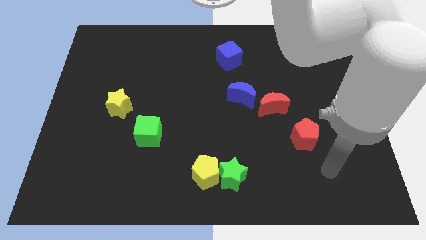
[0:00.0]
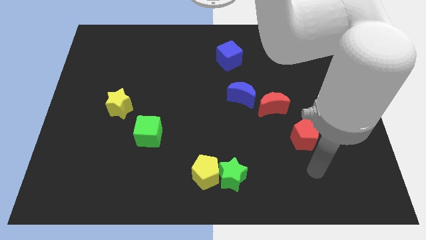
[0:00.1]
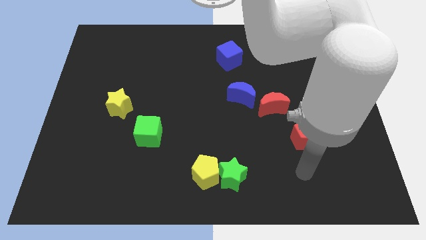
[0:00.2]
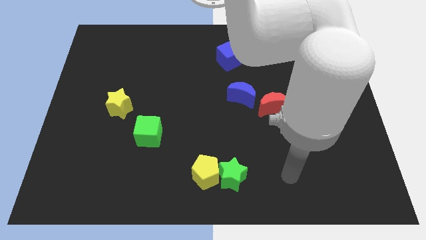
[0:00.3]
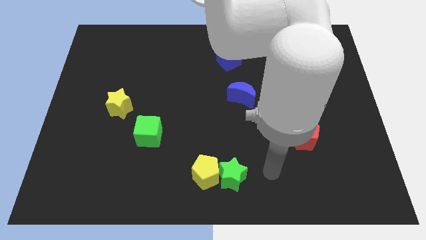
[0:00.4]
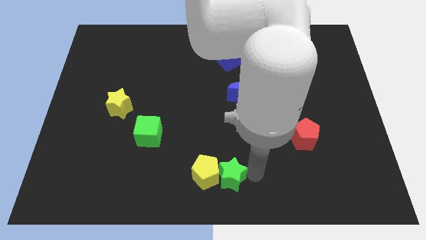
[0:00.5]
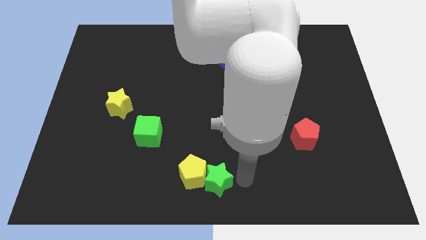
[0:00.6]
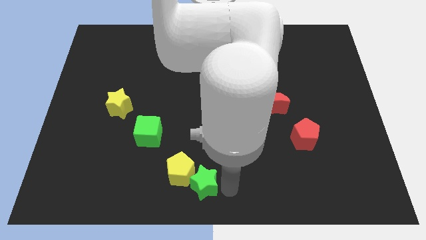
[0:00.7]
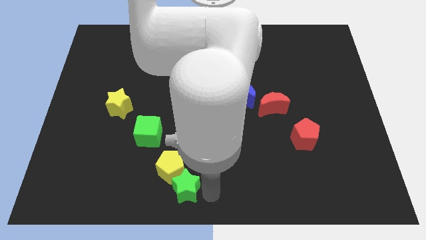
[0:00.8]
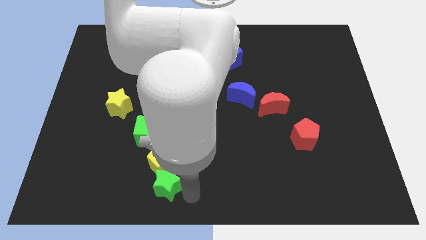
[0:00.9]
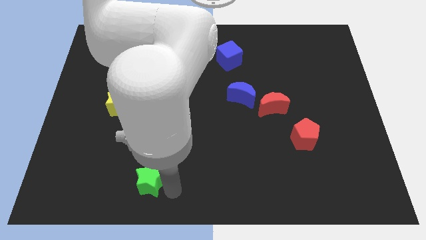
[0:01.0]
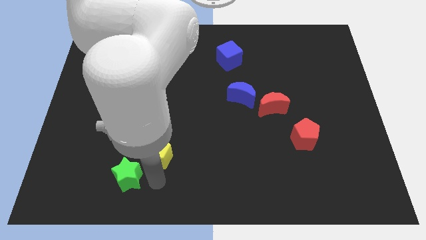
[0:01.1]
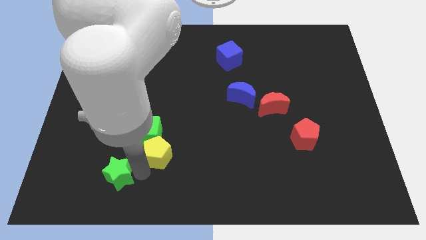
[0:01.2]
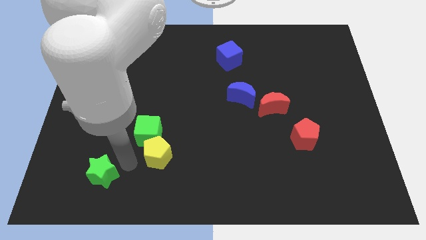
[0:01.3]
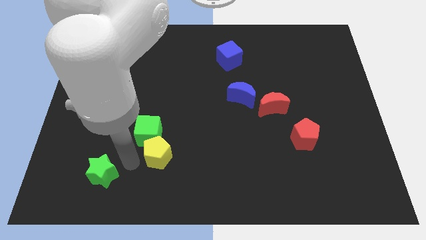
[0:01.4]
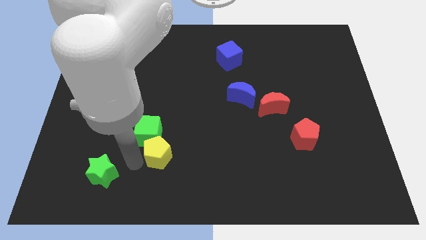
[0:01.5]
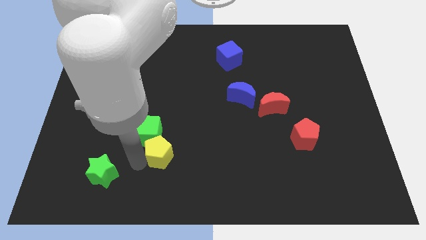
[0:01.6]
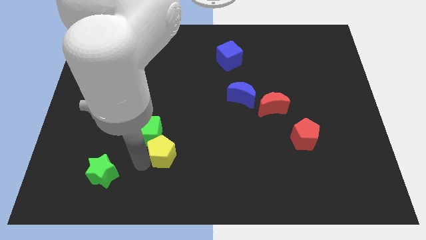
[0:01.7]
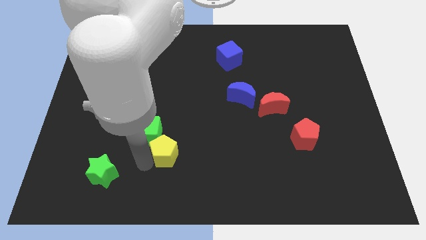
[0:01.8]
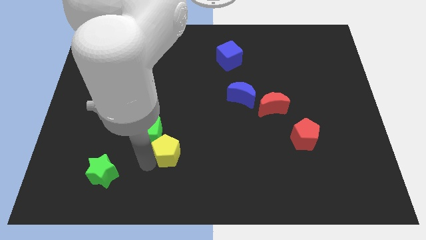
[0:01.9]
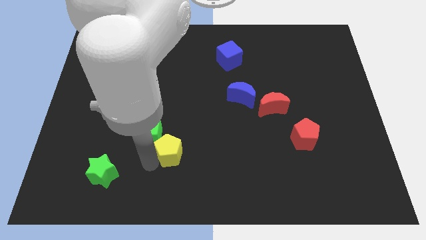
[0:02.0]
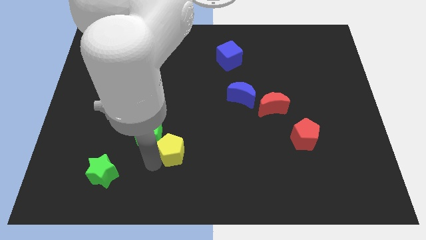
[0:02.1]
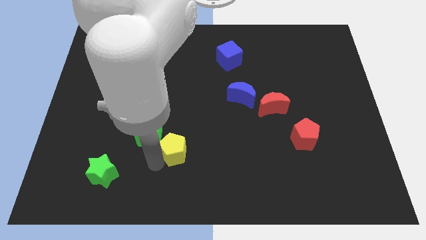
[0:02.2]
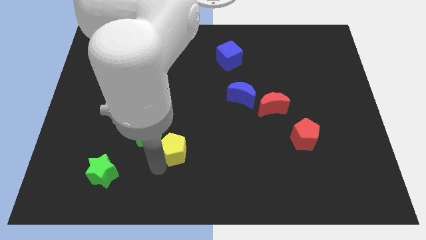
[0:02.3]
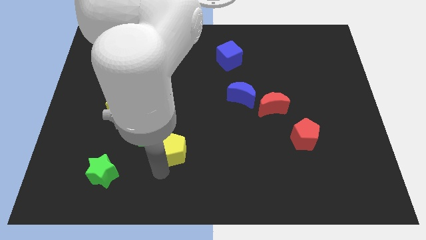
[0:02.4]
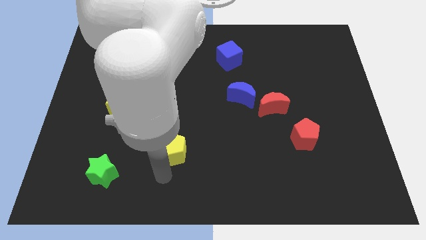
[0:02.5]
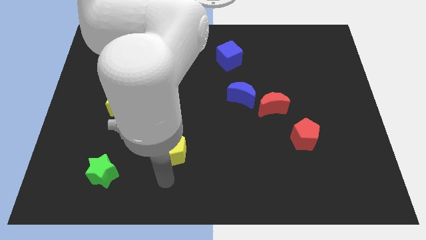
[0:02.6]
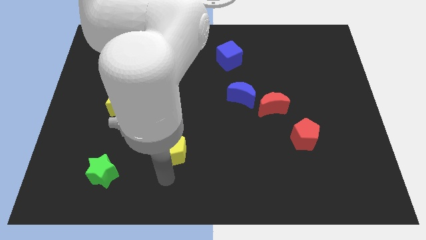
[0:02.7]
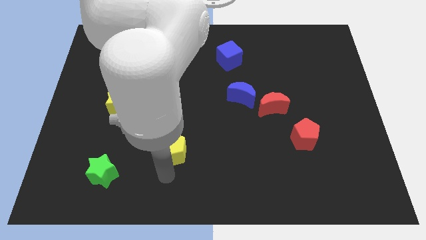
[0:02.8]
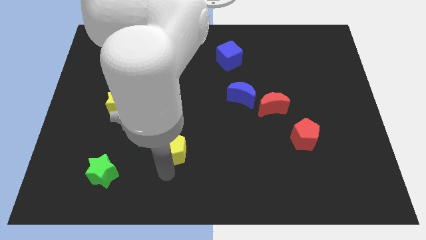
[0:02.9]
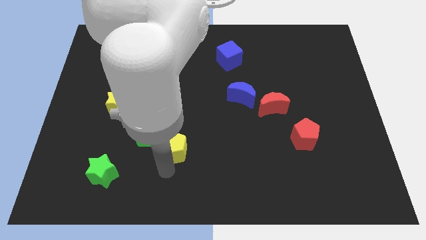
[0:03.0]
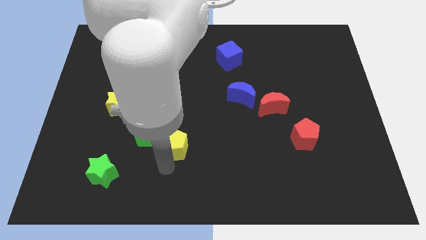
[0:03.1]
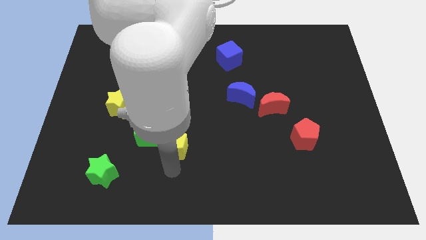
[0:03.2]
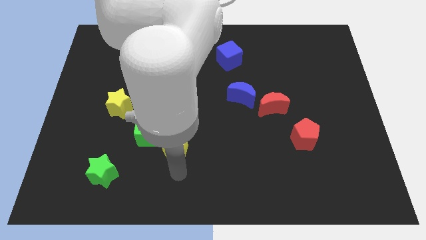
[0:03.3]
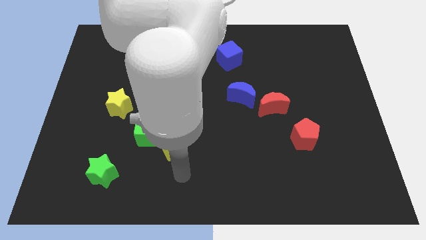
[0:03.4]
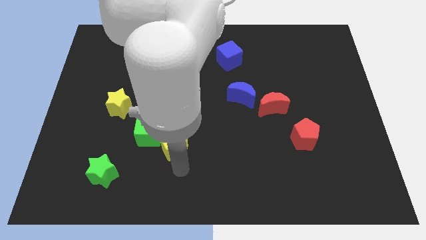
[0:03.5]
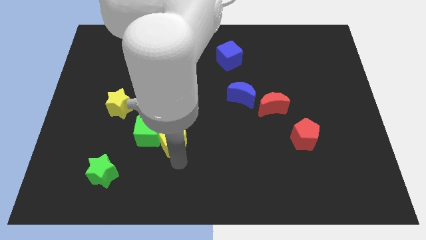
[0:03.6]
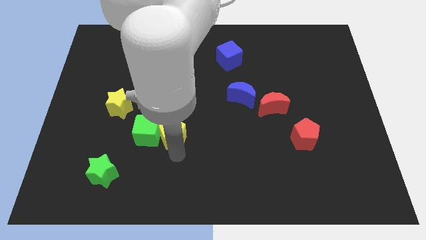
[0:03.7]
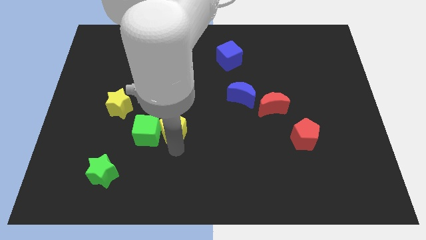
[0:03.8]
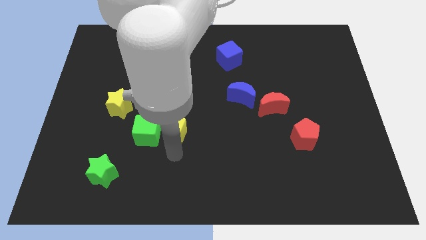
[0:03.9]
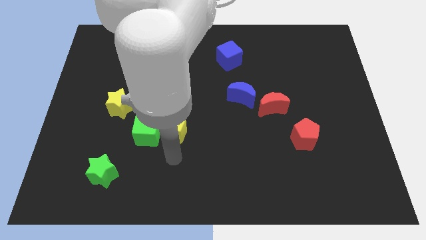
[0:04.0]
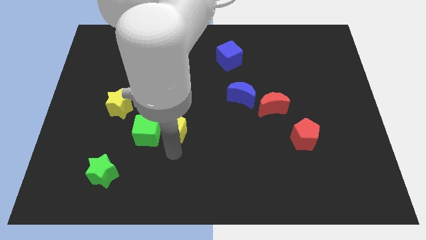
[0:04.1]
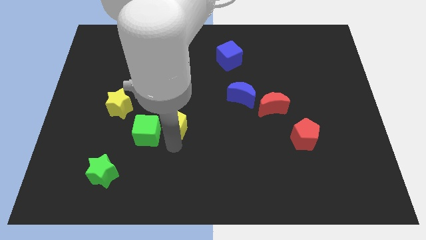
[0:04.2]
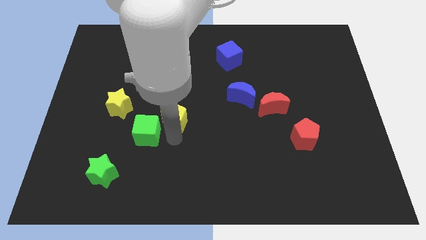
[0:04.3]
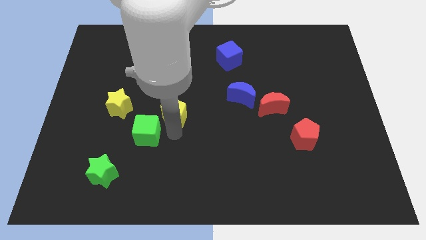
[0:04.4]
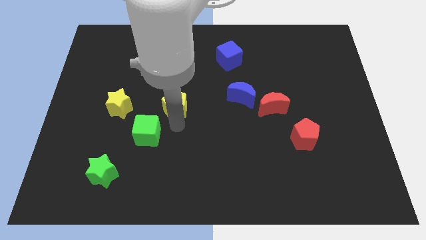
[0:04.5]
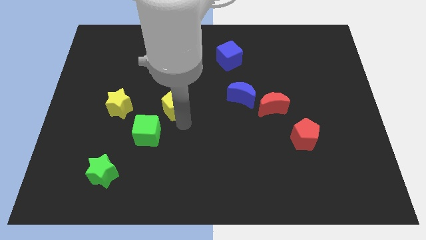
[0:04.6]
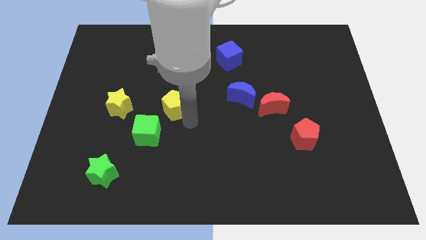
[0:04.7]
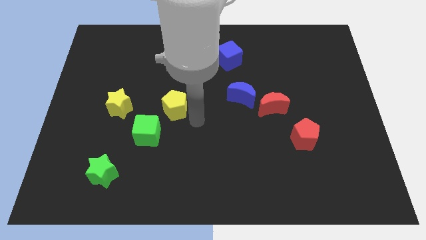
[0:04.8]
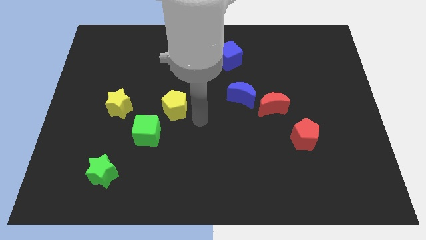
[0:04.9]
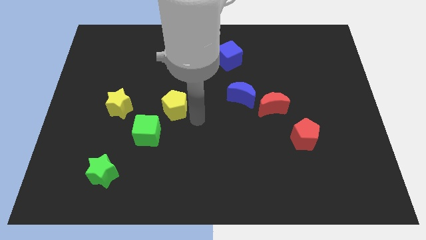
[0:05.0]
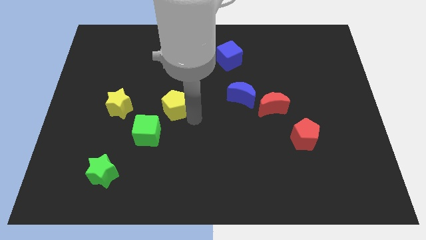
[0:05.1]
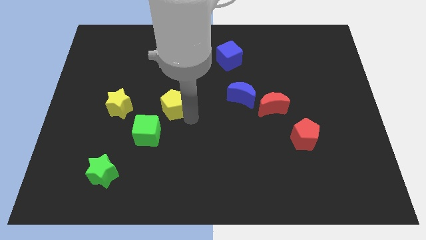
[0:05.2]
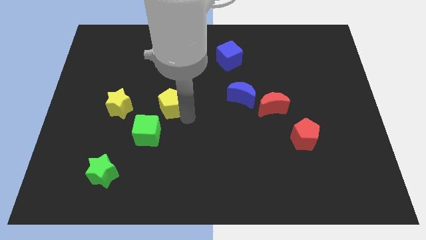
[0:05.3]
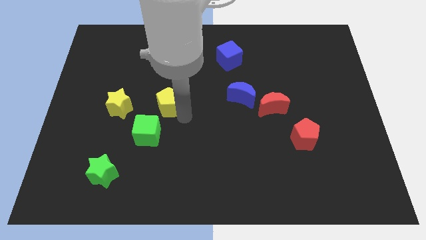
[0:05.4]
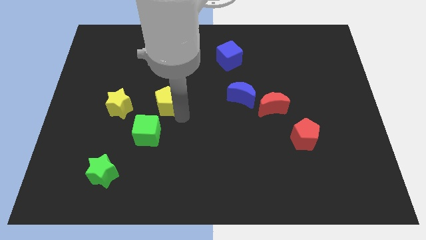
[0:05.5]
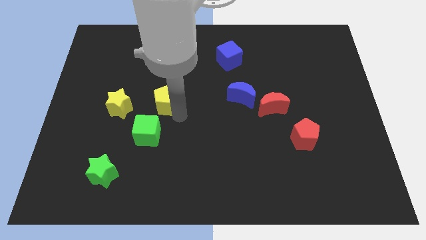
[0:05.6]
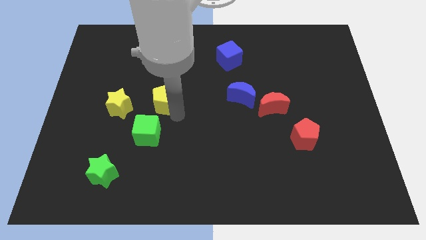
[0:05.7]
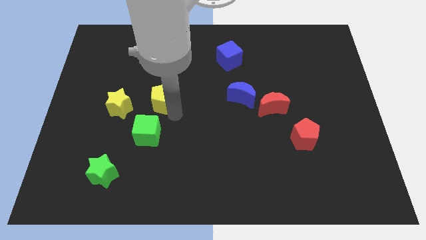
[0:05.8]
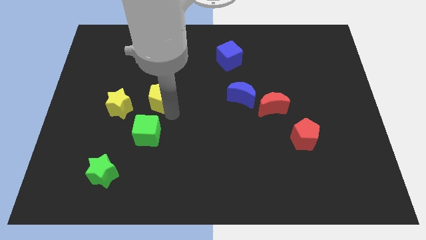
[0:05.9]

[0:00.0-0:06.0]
push the yellow pentagon up and to the left

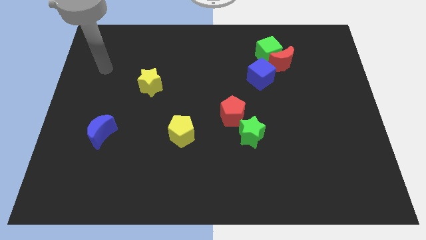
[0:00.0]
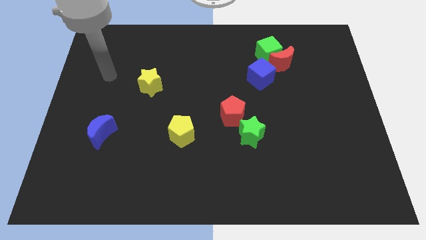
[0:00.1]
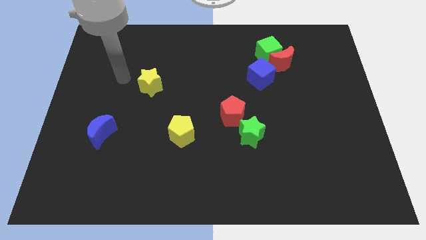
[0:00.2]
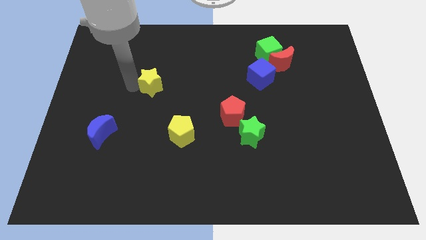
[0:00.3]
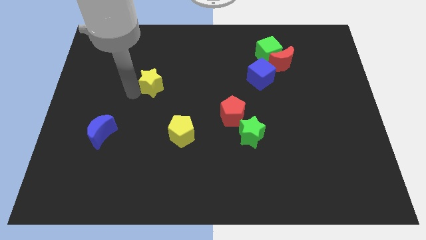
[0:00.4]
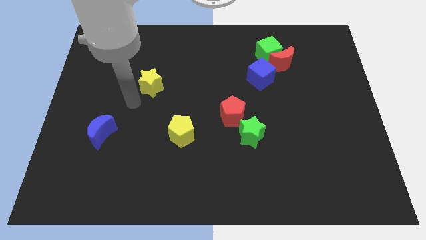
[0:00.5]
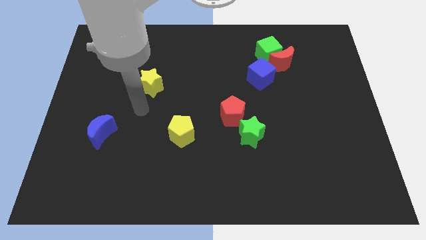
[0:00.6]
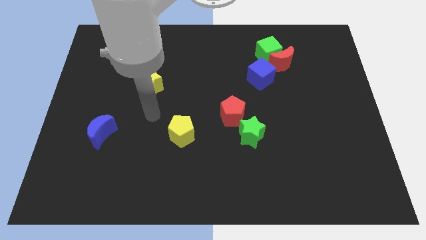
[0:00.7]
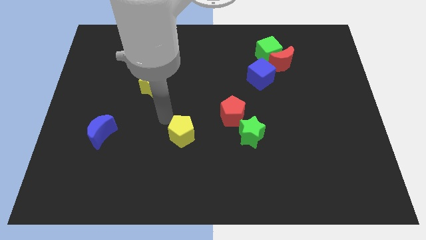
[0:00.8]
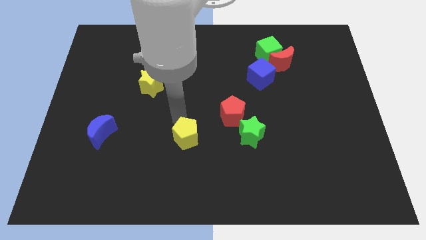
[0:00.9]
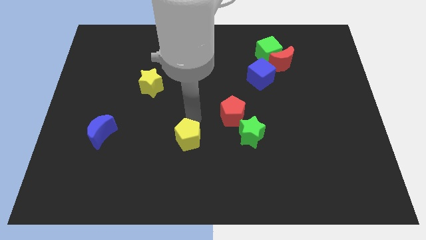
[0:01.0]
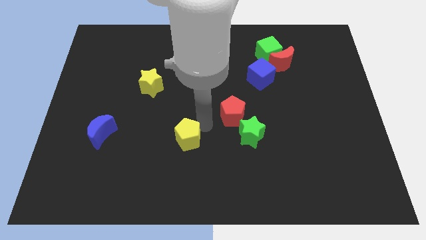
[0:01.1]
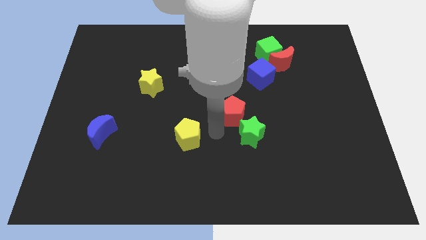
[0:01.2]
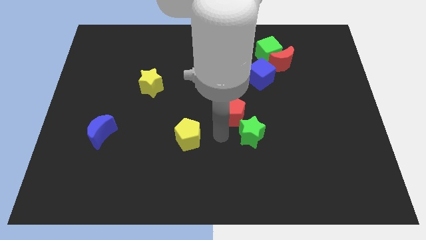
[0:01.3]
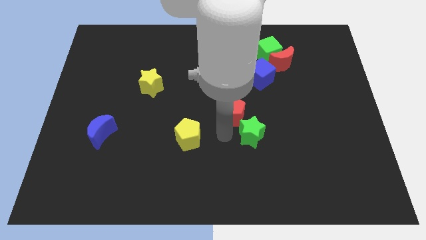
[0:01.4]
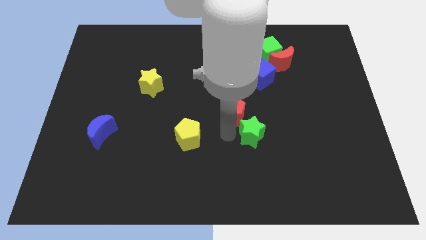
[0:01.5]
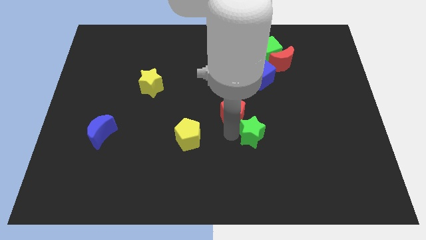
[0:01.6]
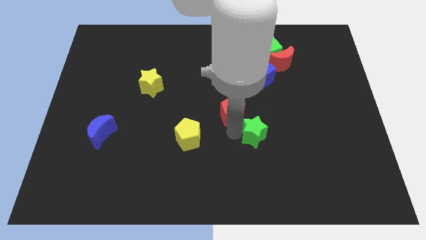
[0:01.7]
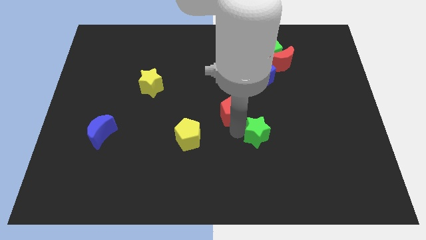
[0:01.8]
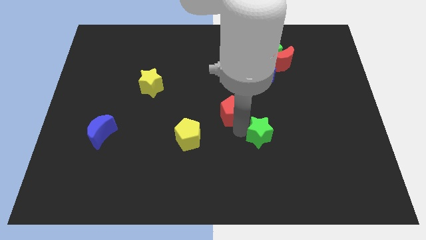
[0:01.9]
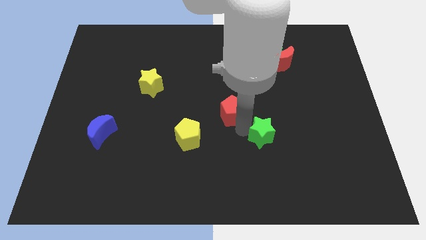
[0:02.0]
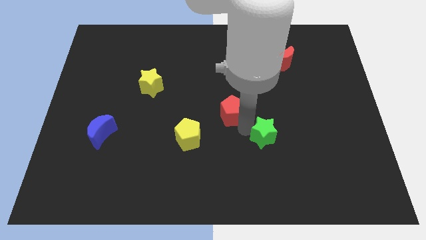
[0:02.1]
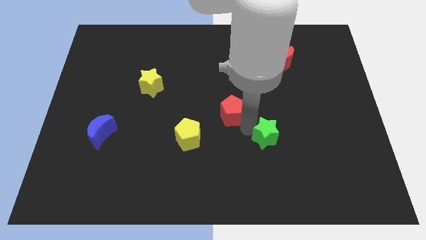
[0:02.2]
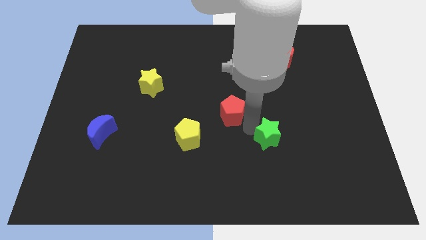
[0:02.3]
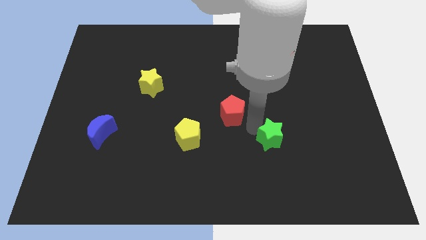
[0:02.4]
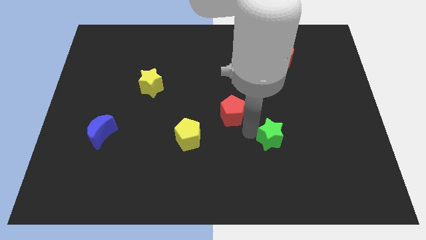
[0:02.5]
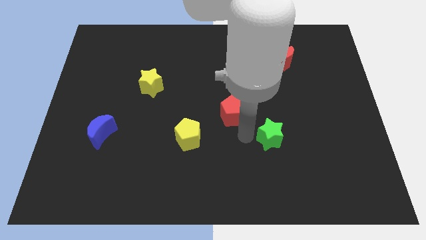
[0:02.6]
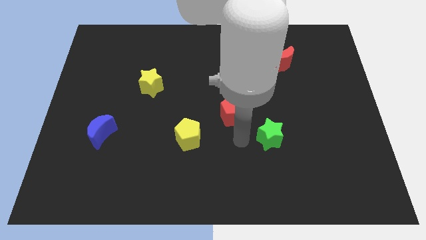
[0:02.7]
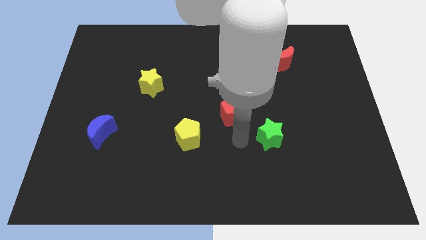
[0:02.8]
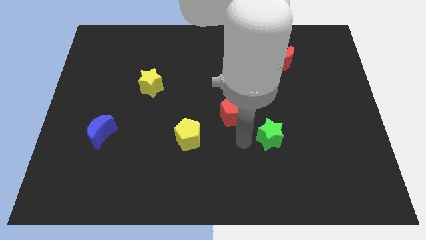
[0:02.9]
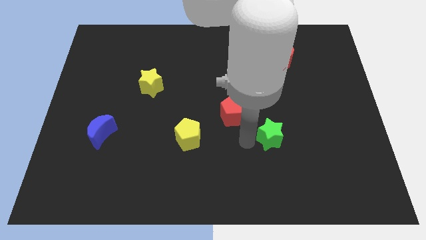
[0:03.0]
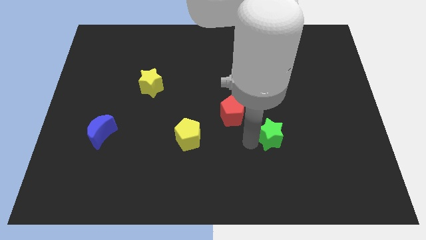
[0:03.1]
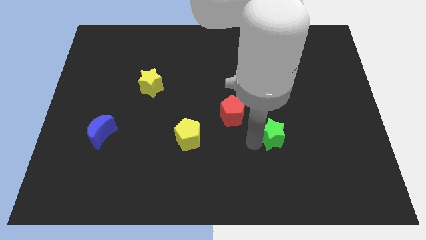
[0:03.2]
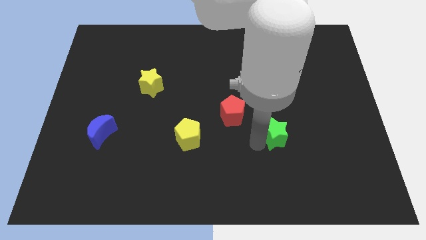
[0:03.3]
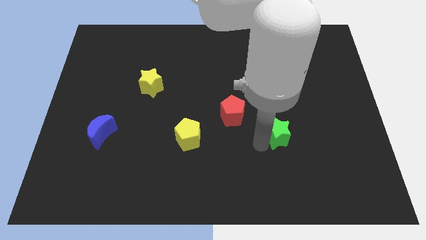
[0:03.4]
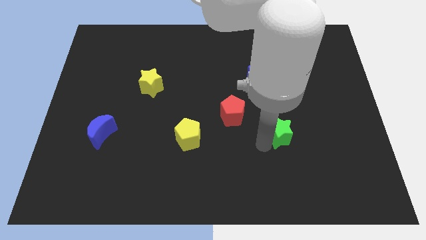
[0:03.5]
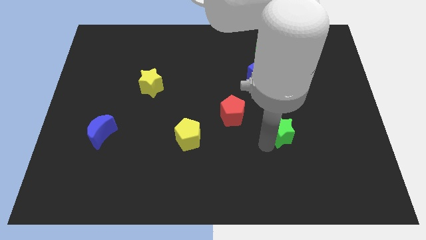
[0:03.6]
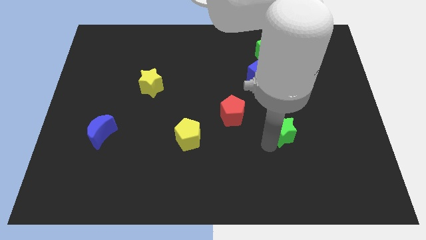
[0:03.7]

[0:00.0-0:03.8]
slightly push the green star right
